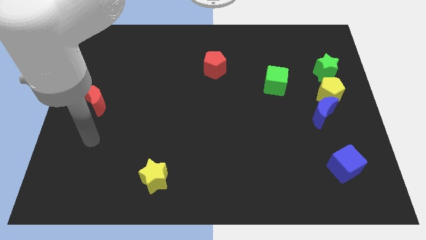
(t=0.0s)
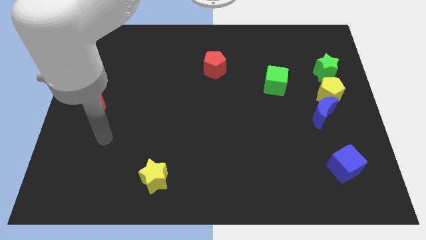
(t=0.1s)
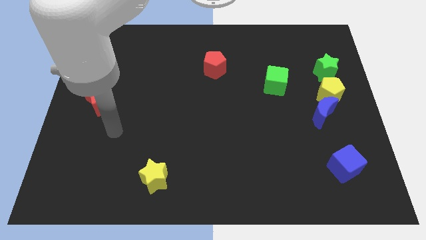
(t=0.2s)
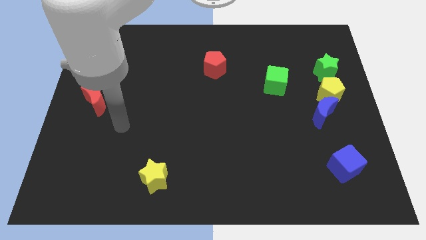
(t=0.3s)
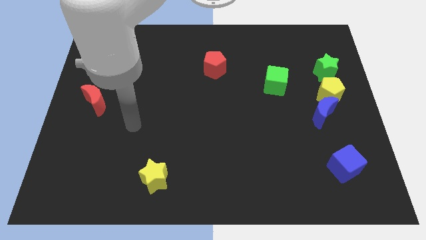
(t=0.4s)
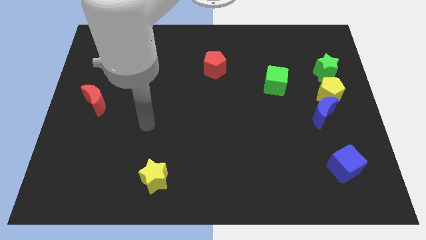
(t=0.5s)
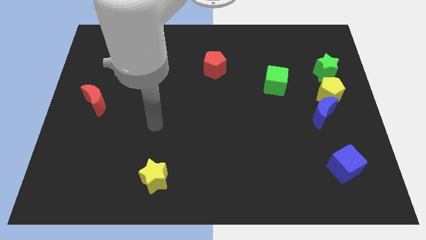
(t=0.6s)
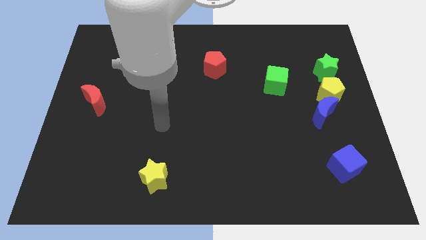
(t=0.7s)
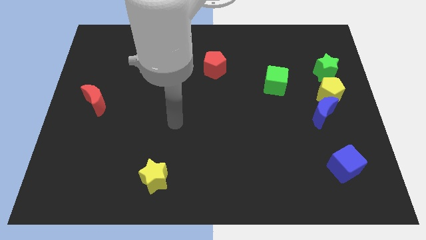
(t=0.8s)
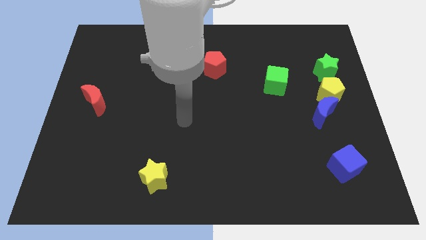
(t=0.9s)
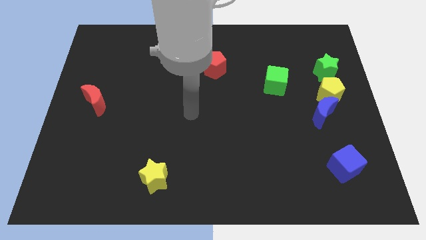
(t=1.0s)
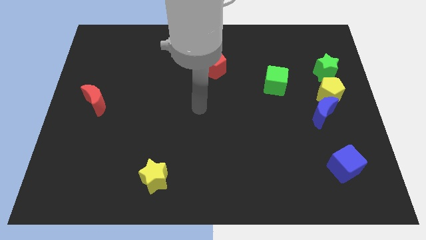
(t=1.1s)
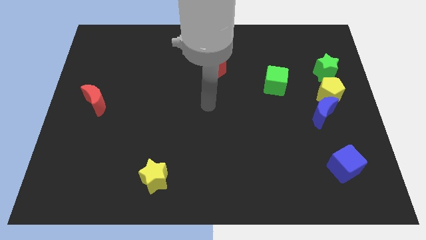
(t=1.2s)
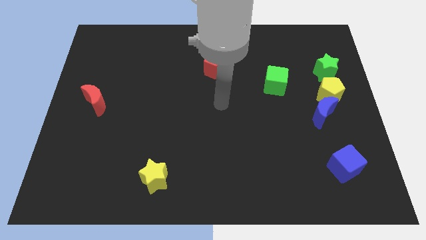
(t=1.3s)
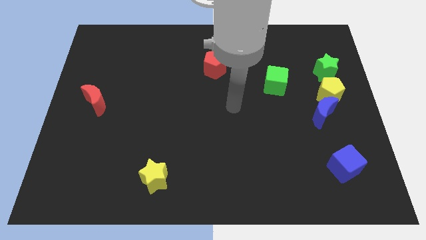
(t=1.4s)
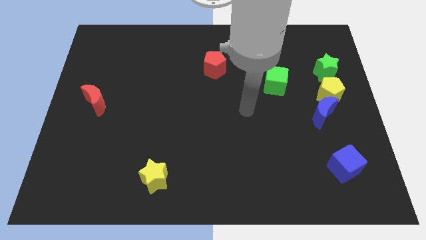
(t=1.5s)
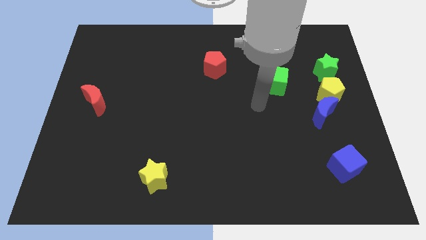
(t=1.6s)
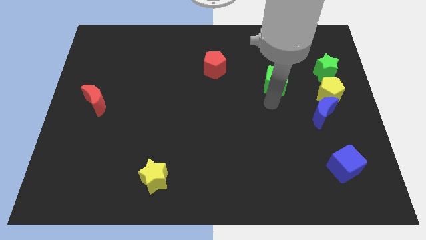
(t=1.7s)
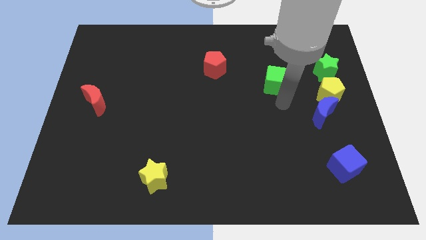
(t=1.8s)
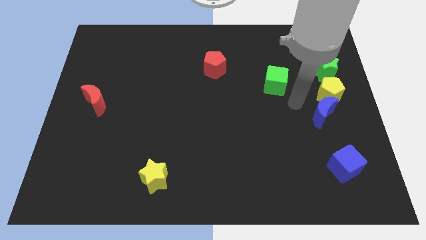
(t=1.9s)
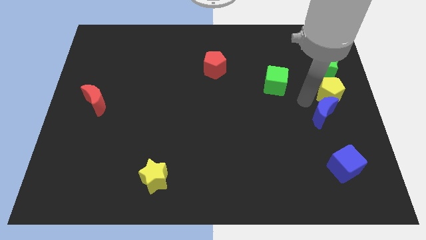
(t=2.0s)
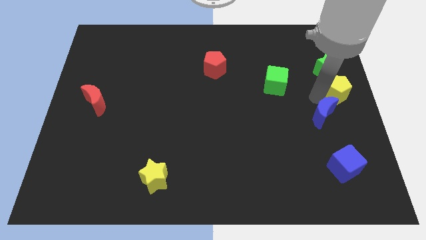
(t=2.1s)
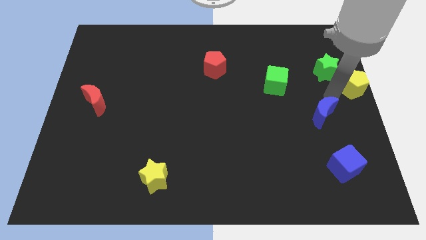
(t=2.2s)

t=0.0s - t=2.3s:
pull the blue moon apart from the yellow pentagon

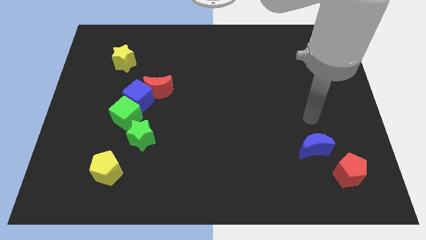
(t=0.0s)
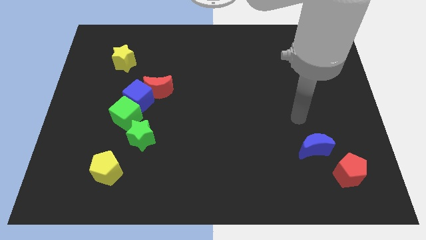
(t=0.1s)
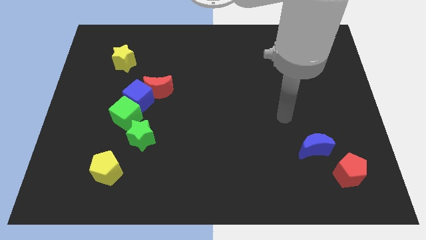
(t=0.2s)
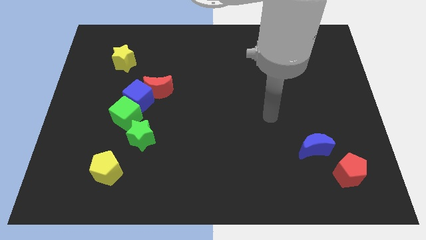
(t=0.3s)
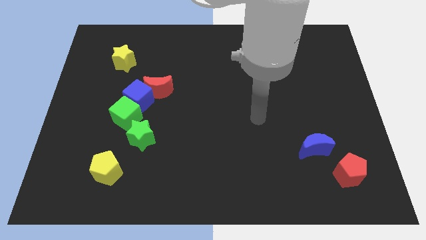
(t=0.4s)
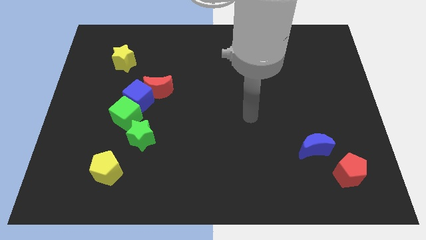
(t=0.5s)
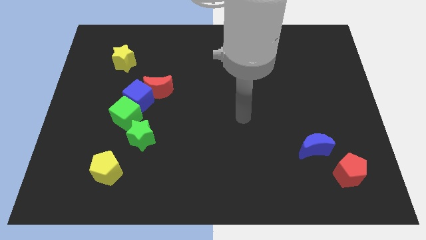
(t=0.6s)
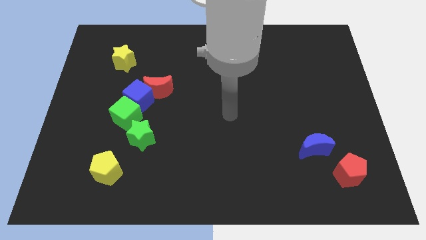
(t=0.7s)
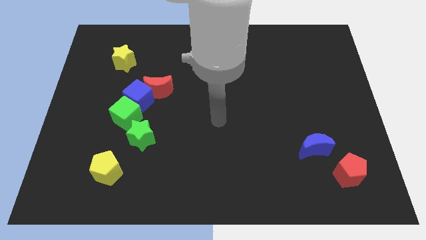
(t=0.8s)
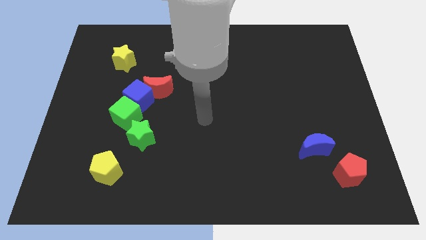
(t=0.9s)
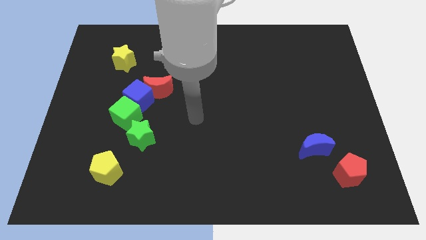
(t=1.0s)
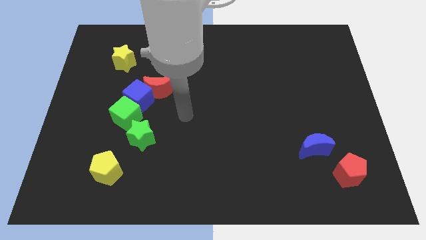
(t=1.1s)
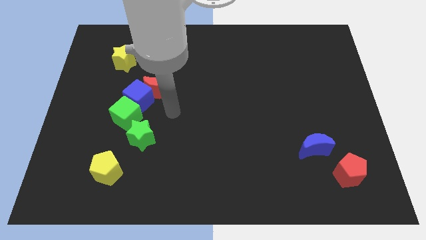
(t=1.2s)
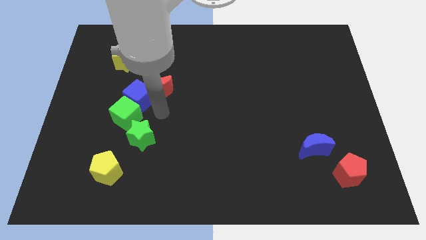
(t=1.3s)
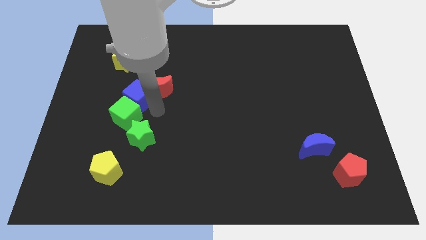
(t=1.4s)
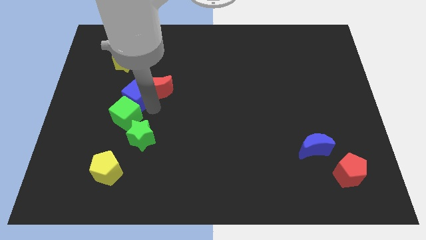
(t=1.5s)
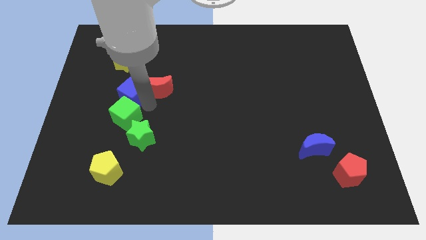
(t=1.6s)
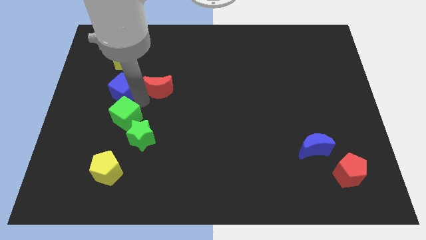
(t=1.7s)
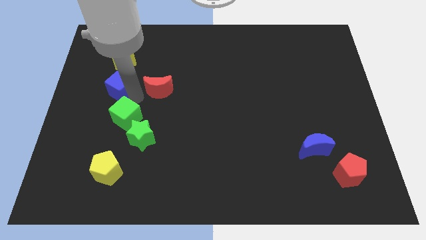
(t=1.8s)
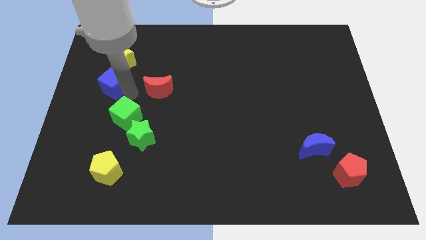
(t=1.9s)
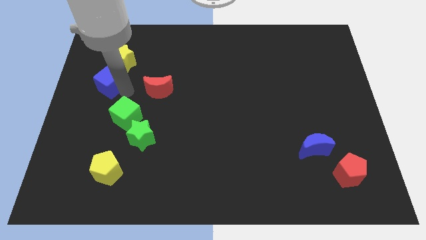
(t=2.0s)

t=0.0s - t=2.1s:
move the blue cube away from the red moon and green cube

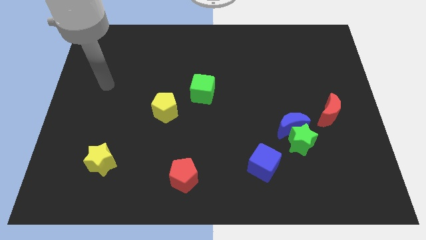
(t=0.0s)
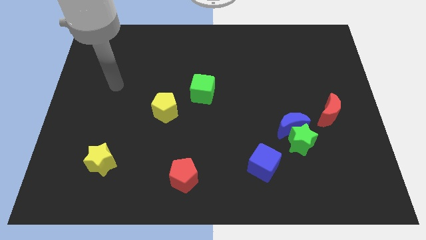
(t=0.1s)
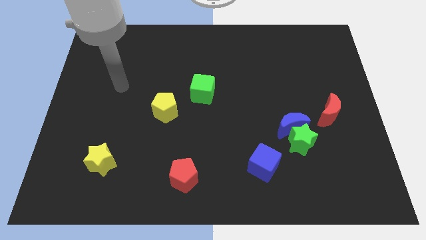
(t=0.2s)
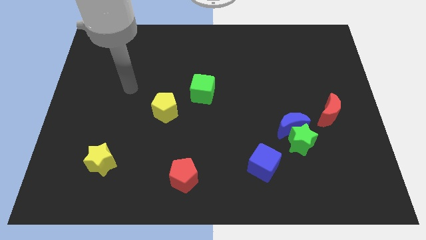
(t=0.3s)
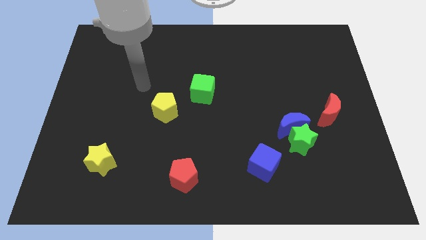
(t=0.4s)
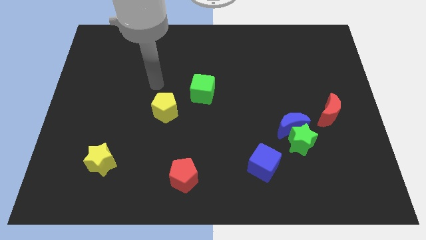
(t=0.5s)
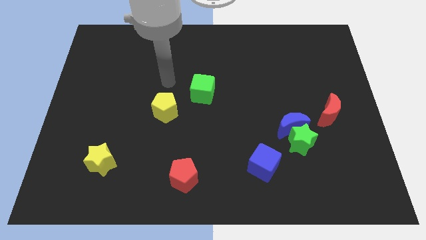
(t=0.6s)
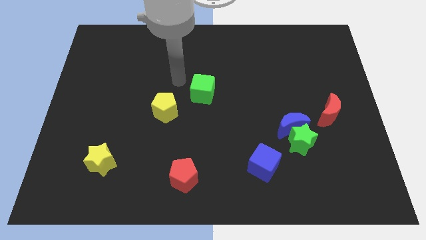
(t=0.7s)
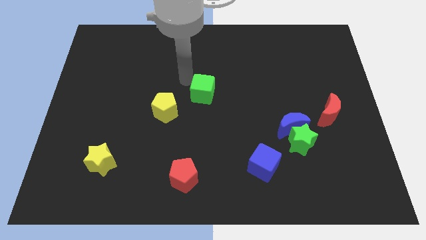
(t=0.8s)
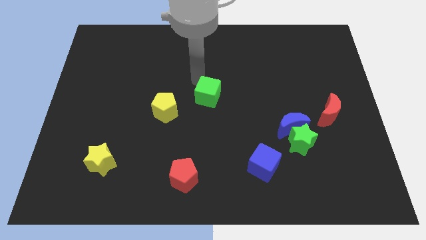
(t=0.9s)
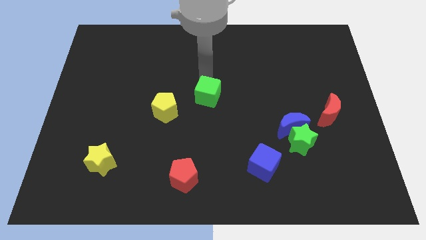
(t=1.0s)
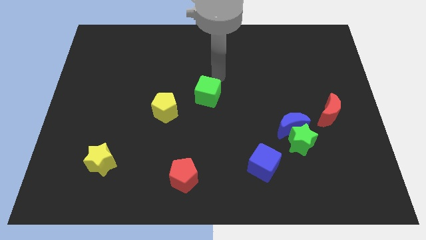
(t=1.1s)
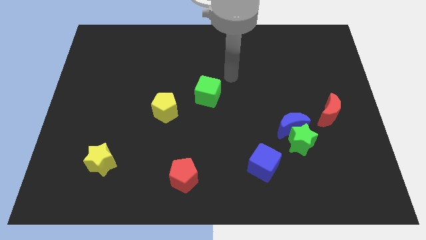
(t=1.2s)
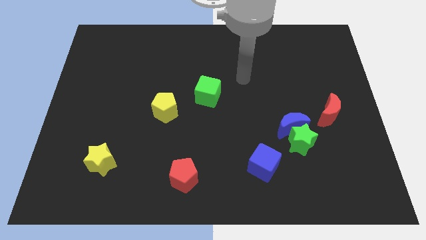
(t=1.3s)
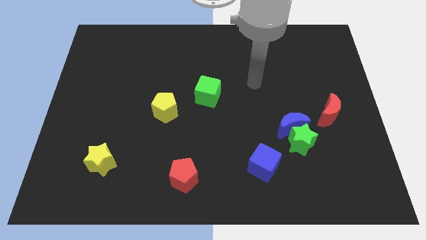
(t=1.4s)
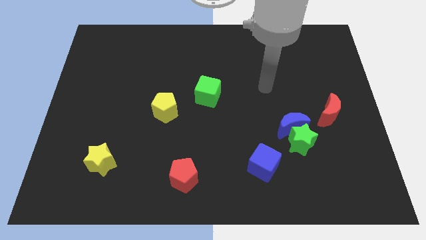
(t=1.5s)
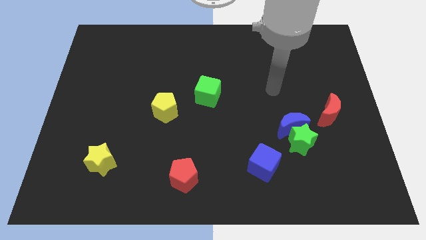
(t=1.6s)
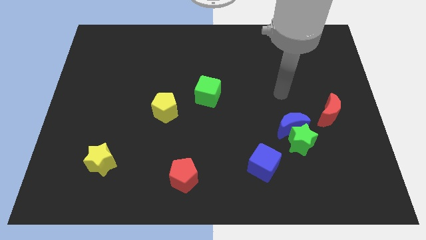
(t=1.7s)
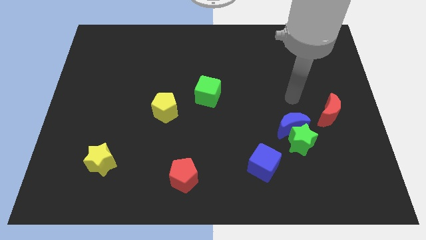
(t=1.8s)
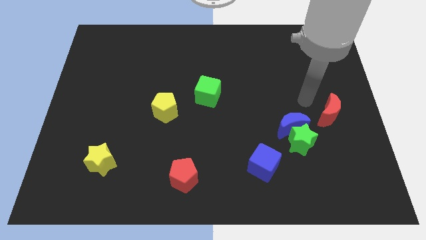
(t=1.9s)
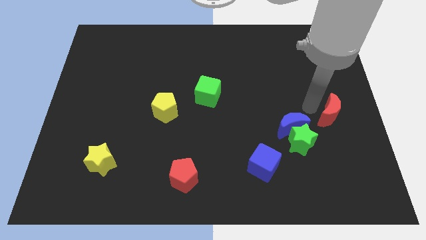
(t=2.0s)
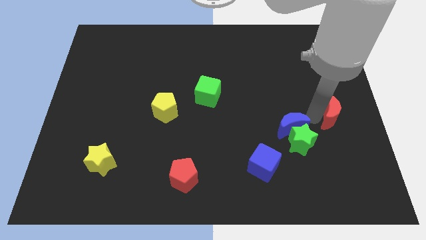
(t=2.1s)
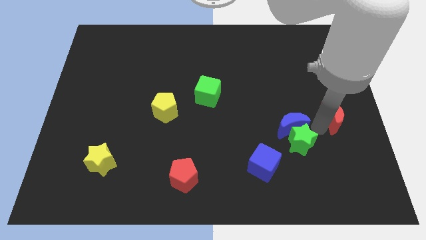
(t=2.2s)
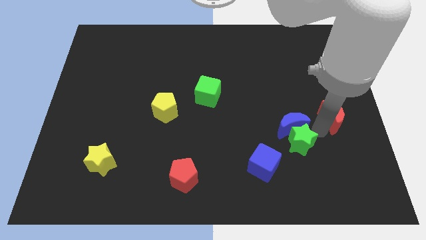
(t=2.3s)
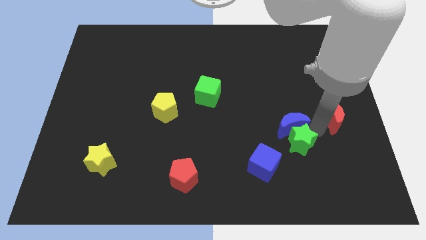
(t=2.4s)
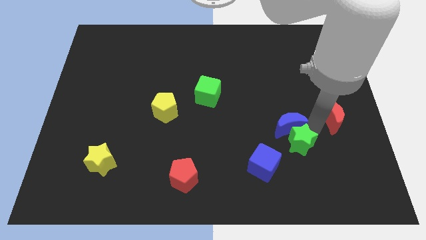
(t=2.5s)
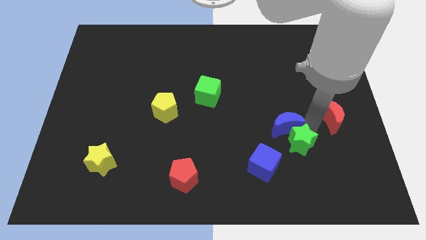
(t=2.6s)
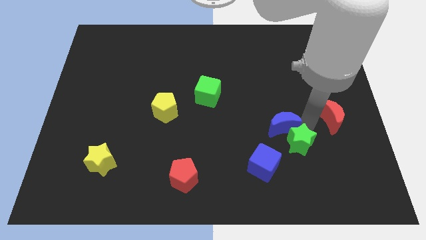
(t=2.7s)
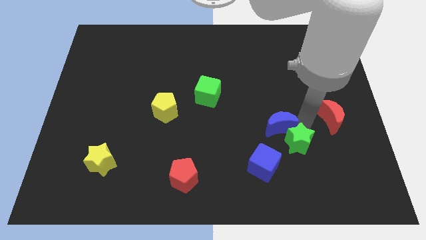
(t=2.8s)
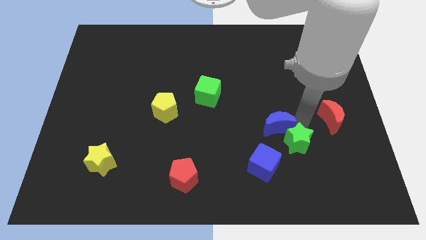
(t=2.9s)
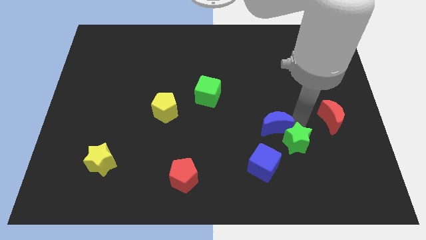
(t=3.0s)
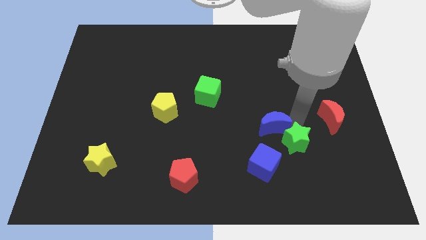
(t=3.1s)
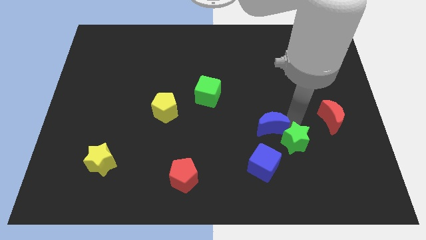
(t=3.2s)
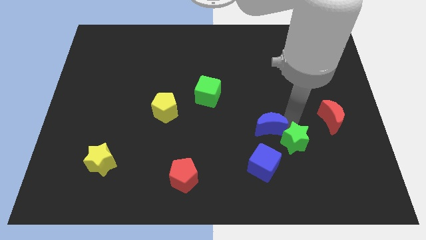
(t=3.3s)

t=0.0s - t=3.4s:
pull the blue moon apart from the green star and red moon

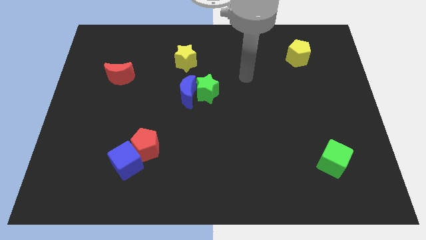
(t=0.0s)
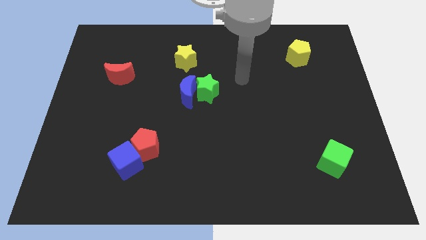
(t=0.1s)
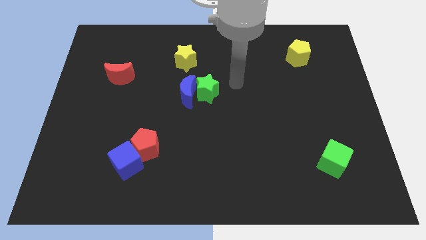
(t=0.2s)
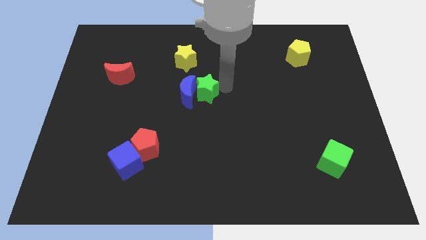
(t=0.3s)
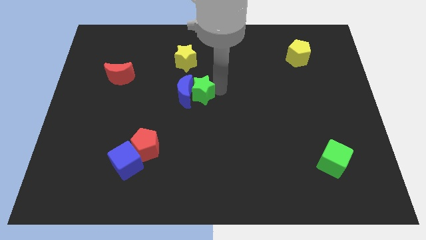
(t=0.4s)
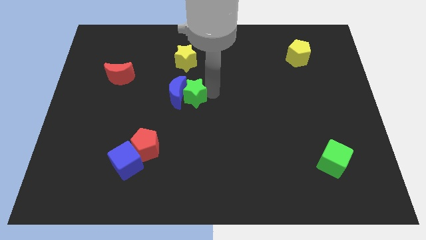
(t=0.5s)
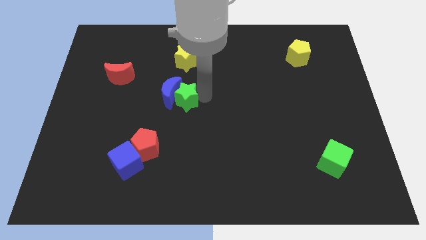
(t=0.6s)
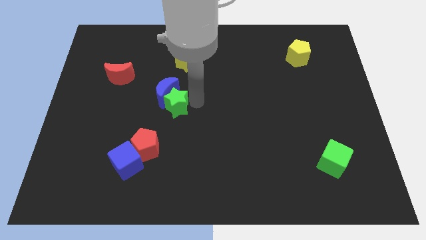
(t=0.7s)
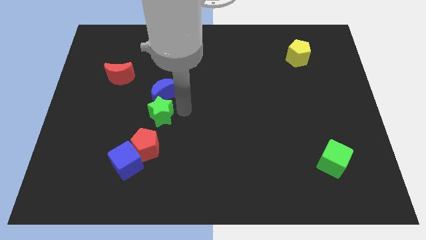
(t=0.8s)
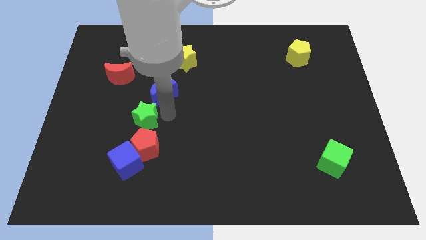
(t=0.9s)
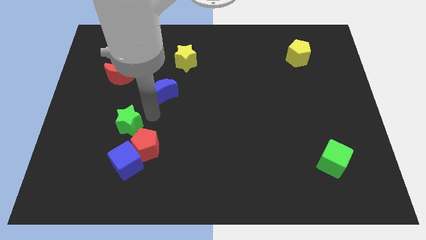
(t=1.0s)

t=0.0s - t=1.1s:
separate the blue moon from the green star

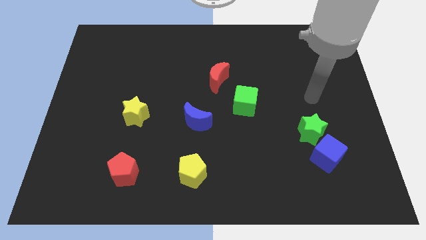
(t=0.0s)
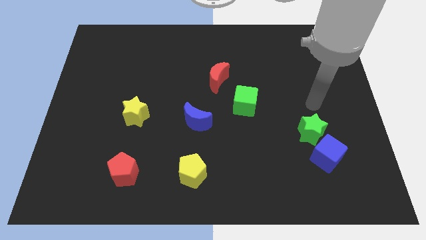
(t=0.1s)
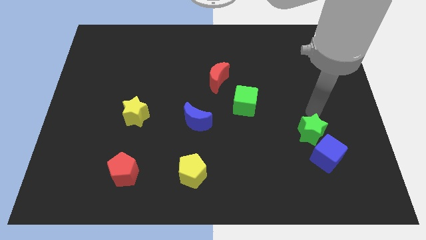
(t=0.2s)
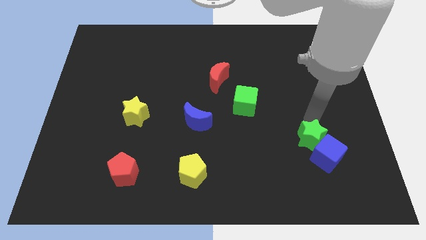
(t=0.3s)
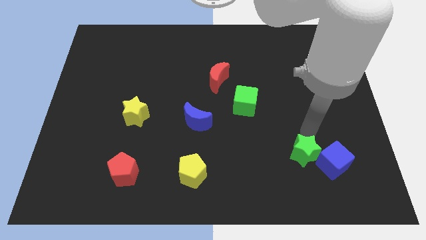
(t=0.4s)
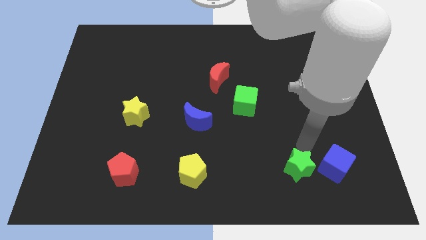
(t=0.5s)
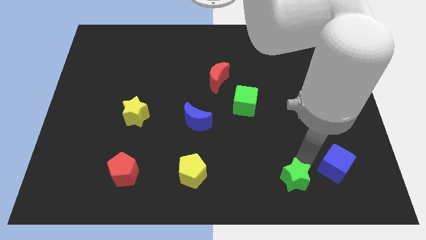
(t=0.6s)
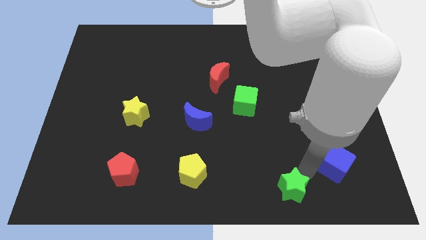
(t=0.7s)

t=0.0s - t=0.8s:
pull the blue cube apart from the green star
